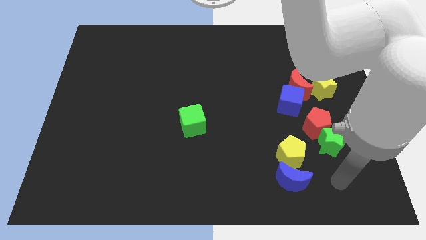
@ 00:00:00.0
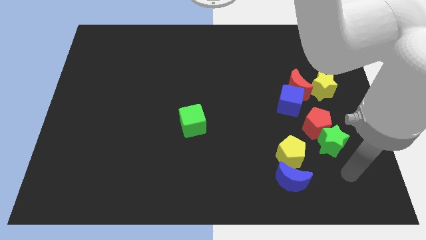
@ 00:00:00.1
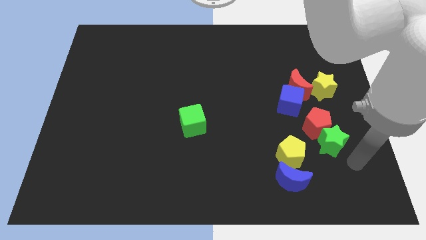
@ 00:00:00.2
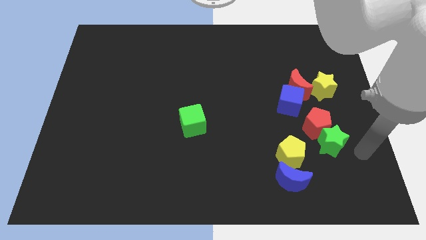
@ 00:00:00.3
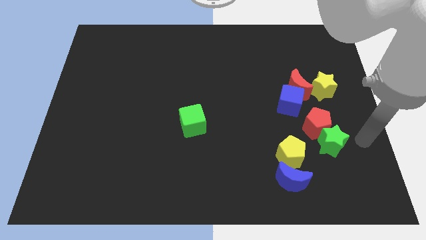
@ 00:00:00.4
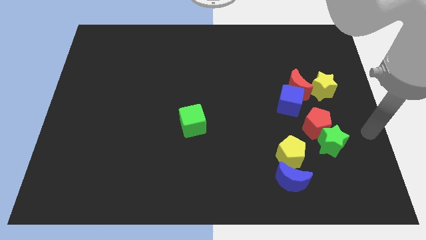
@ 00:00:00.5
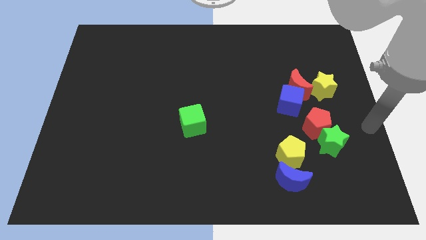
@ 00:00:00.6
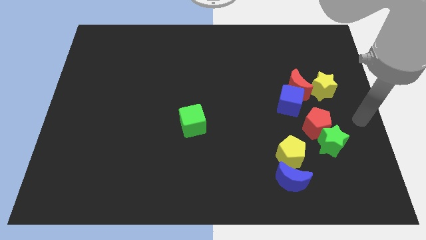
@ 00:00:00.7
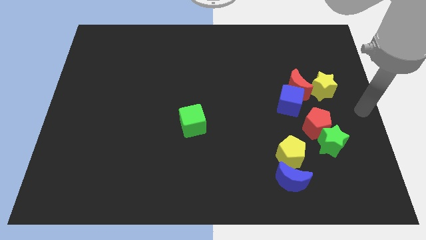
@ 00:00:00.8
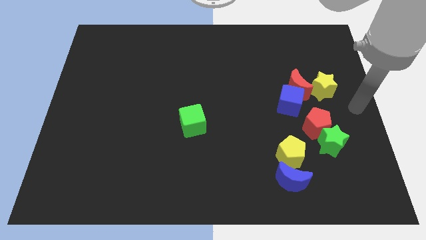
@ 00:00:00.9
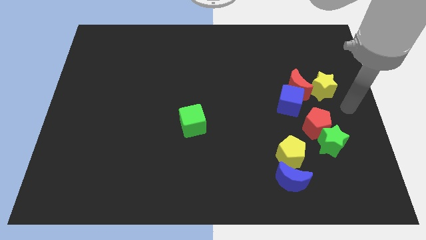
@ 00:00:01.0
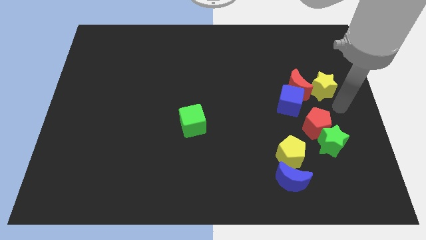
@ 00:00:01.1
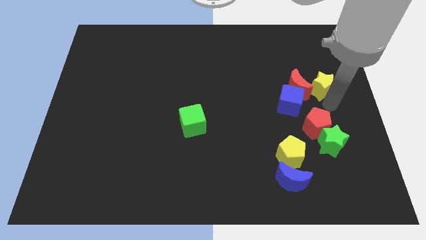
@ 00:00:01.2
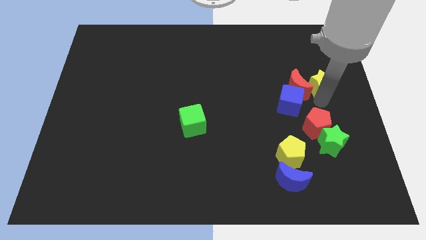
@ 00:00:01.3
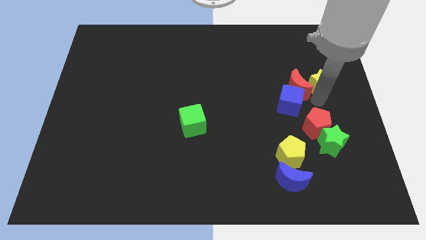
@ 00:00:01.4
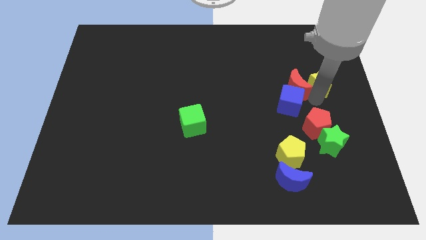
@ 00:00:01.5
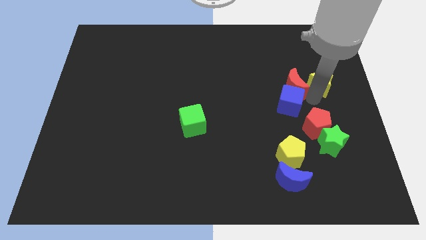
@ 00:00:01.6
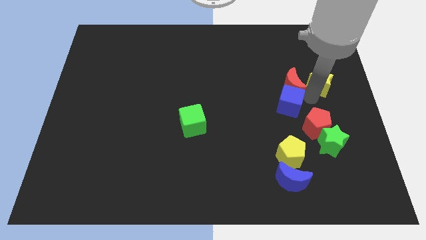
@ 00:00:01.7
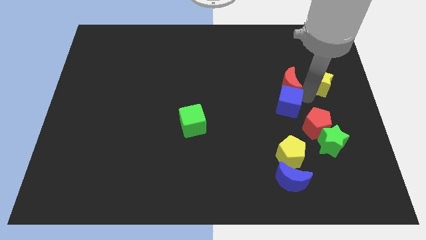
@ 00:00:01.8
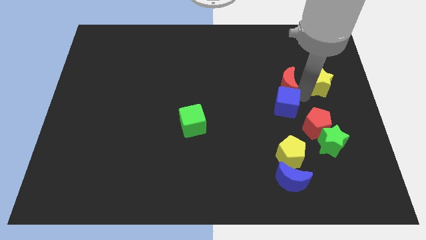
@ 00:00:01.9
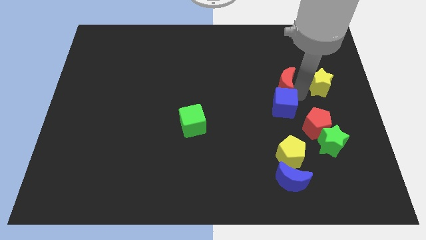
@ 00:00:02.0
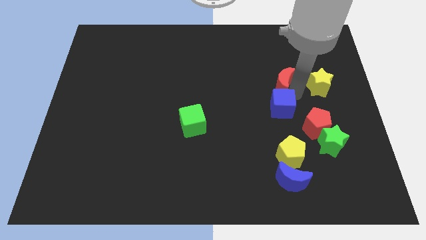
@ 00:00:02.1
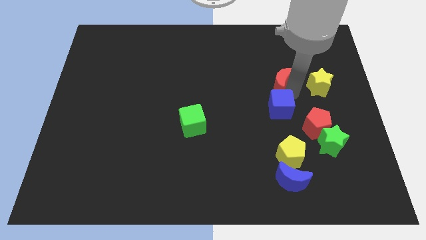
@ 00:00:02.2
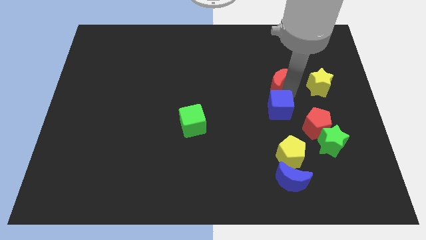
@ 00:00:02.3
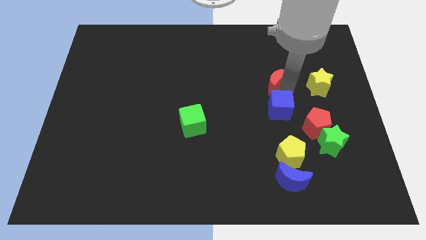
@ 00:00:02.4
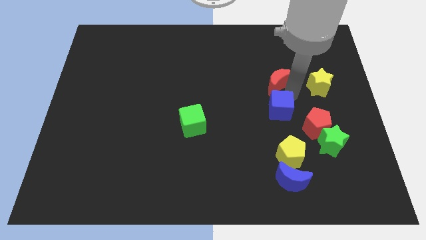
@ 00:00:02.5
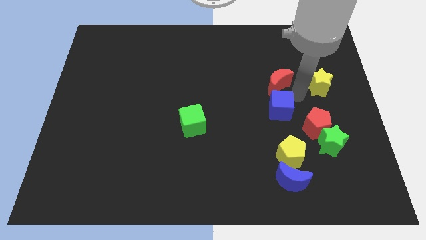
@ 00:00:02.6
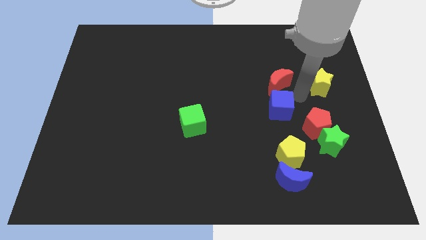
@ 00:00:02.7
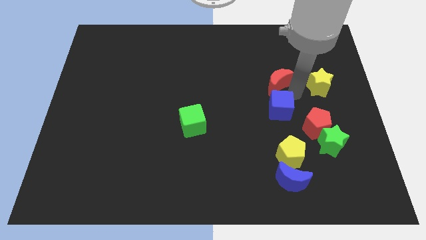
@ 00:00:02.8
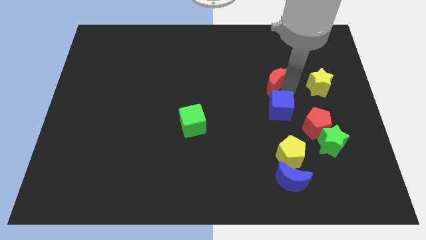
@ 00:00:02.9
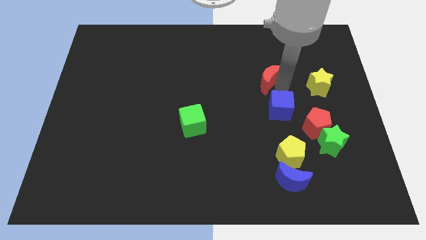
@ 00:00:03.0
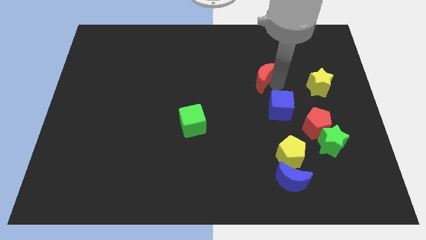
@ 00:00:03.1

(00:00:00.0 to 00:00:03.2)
move the red moon away from the blue cube and yellow star

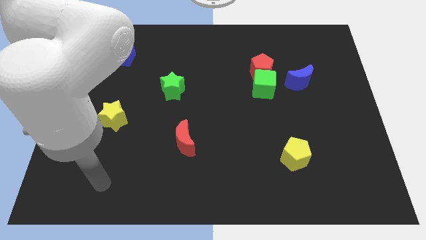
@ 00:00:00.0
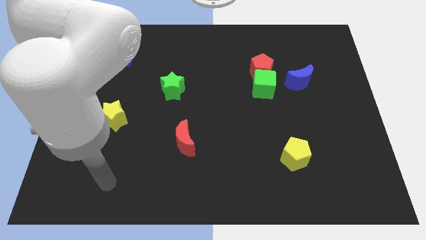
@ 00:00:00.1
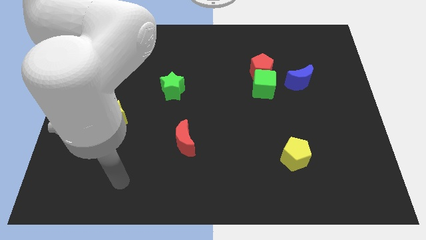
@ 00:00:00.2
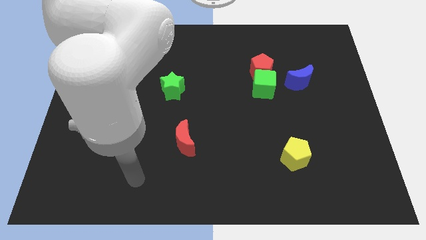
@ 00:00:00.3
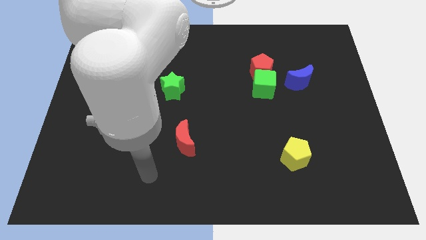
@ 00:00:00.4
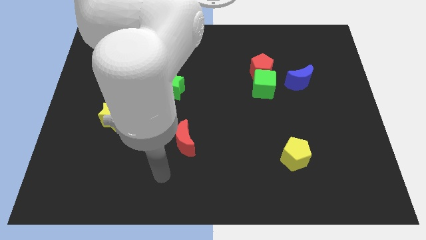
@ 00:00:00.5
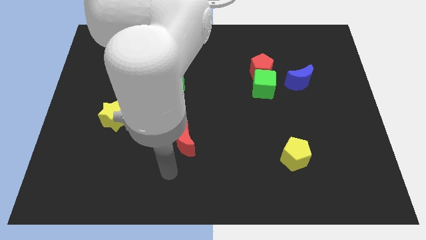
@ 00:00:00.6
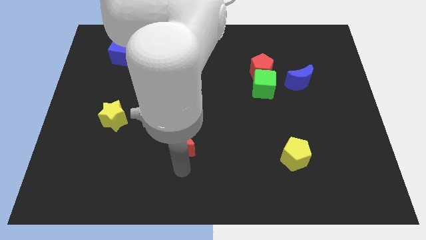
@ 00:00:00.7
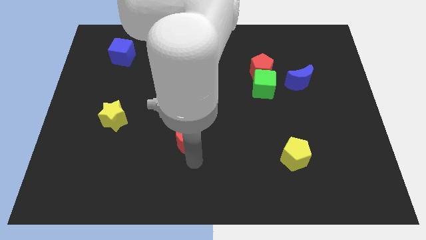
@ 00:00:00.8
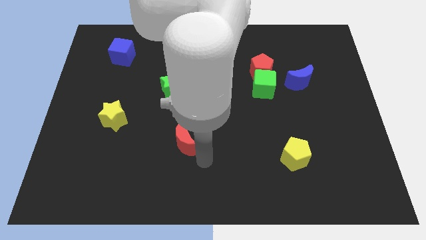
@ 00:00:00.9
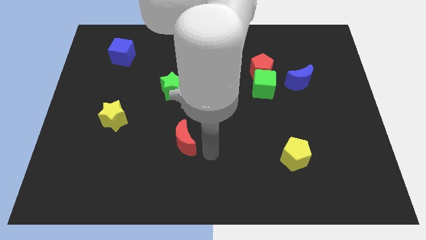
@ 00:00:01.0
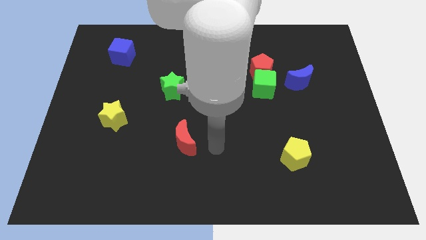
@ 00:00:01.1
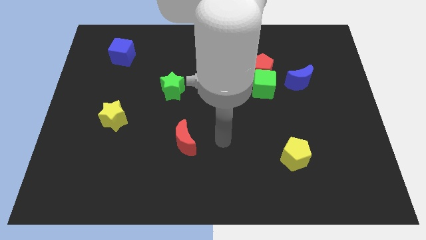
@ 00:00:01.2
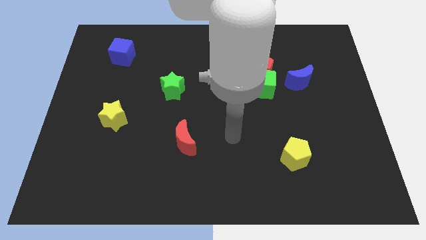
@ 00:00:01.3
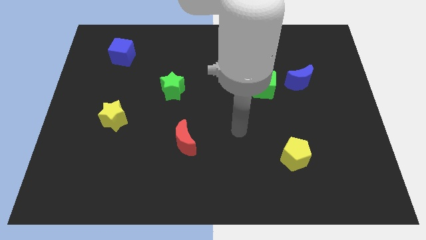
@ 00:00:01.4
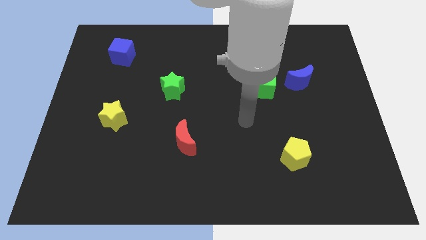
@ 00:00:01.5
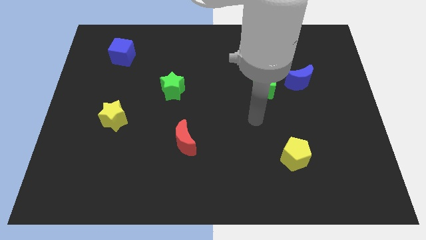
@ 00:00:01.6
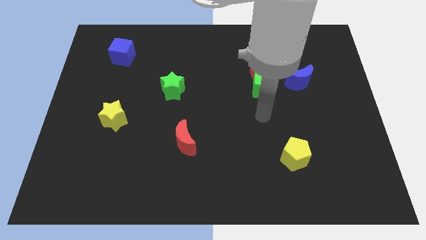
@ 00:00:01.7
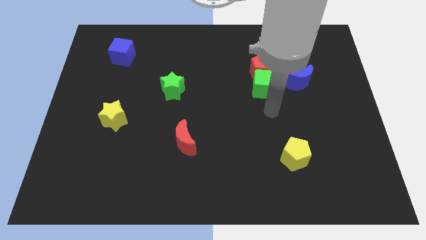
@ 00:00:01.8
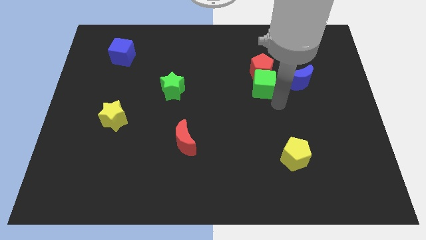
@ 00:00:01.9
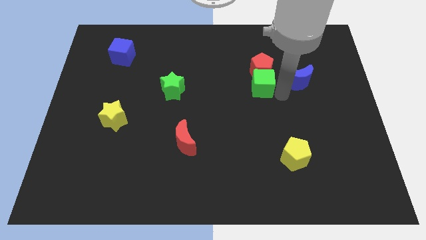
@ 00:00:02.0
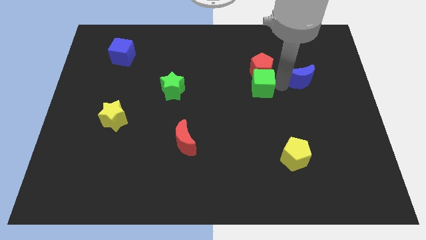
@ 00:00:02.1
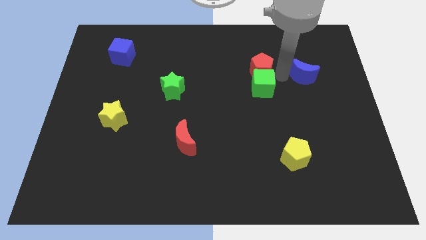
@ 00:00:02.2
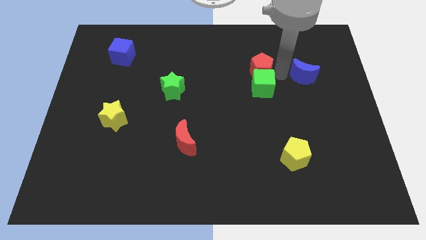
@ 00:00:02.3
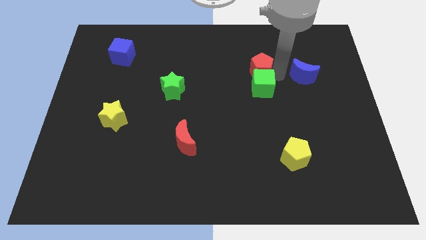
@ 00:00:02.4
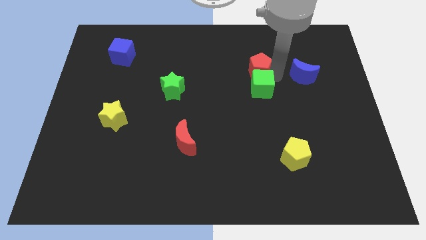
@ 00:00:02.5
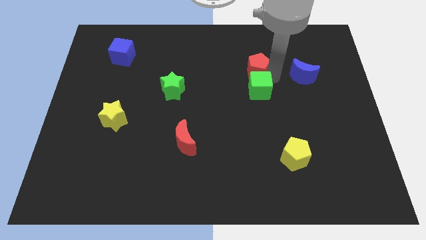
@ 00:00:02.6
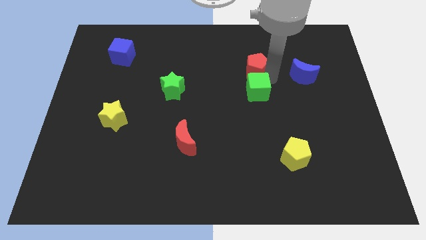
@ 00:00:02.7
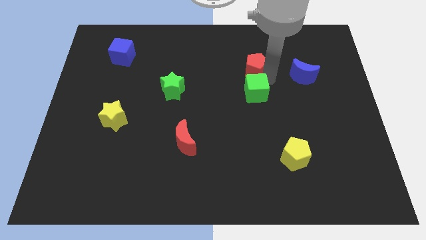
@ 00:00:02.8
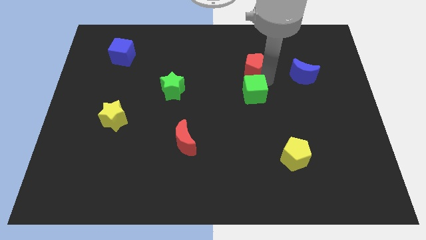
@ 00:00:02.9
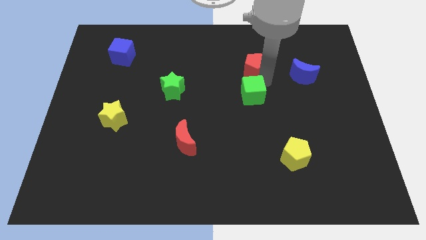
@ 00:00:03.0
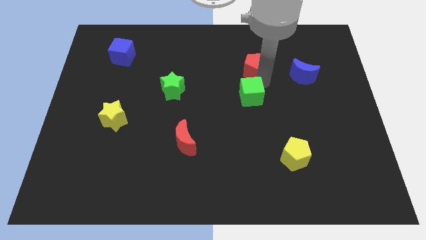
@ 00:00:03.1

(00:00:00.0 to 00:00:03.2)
move the green cube away from the red pentagon and blue moon

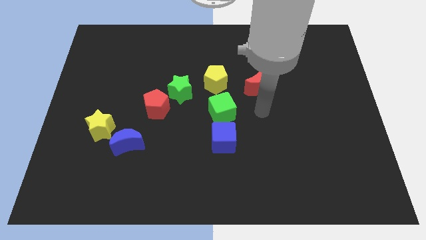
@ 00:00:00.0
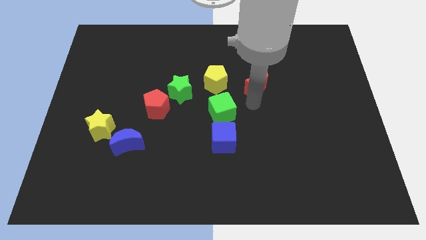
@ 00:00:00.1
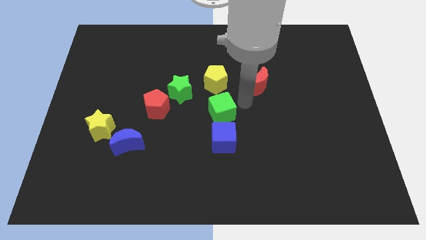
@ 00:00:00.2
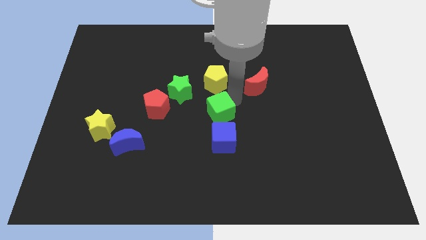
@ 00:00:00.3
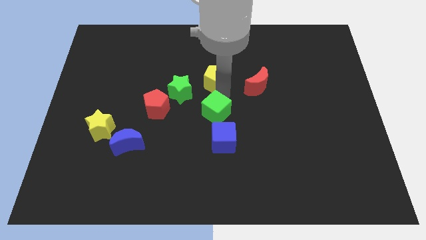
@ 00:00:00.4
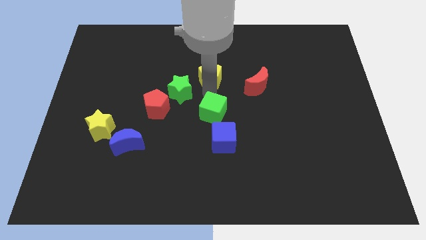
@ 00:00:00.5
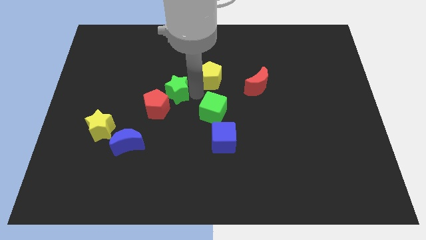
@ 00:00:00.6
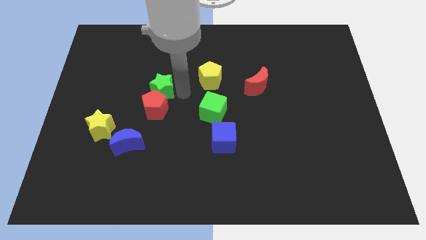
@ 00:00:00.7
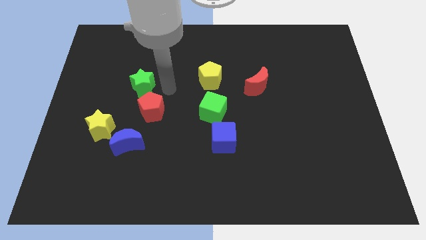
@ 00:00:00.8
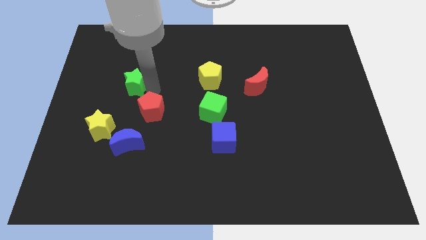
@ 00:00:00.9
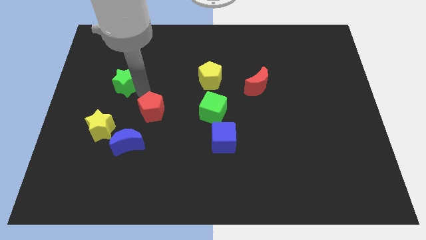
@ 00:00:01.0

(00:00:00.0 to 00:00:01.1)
pull the red pentagon apart from the green star

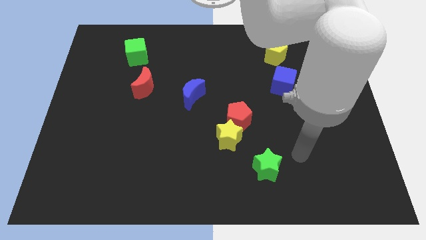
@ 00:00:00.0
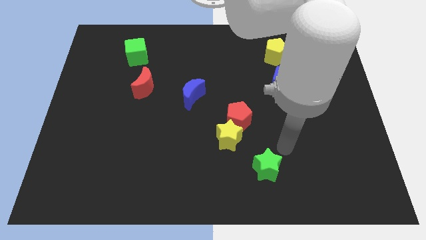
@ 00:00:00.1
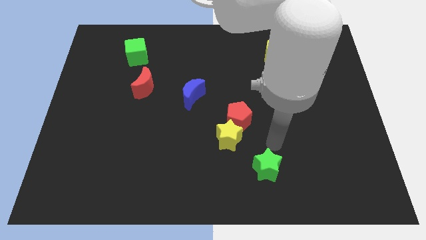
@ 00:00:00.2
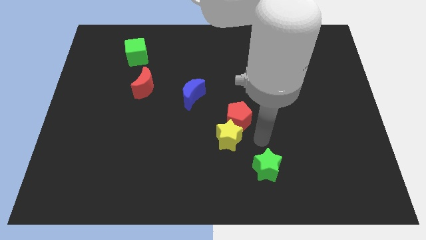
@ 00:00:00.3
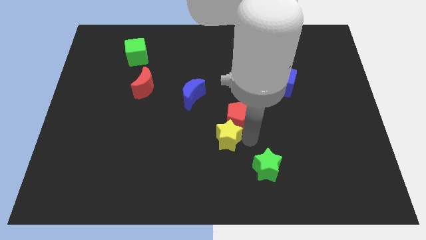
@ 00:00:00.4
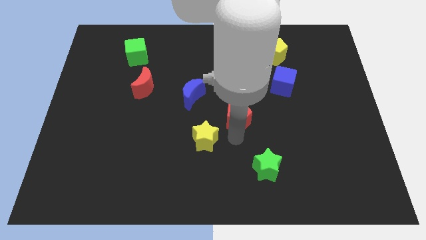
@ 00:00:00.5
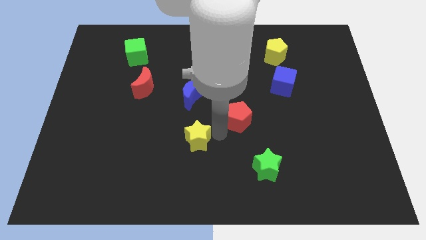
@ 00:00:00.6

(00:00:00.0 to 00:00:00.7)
pull the red pentagon apart from the yellow star

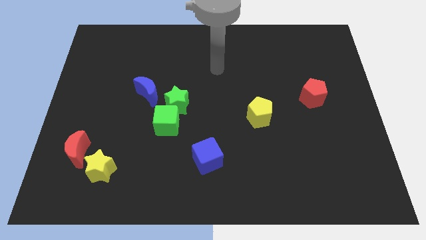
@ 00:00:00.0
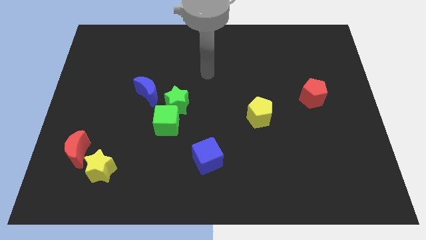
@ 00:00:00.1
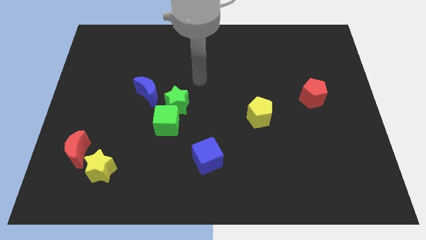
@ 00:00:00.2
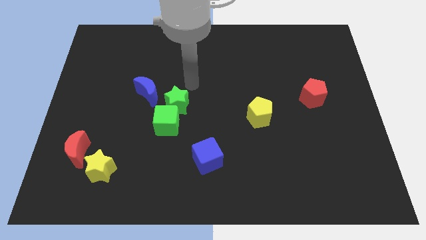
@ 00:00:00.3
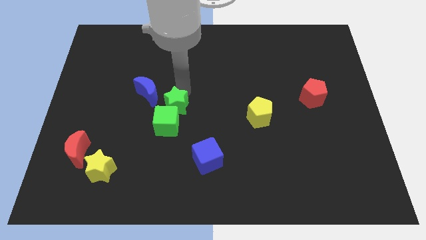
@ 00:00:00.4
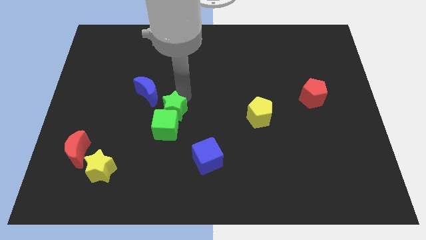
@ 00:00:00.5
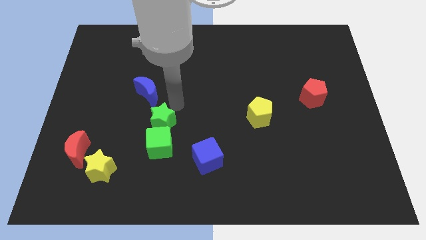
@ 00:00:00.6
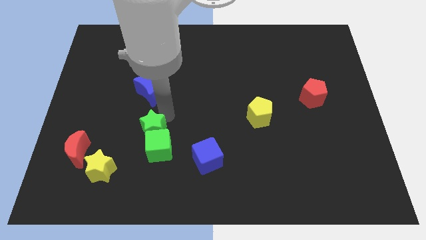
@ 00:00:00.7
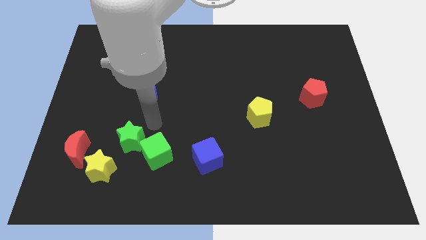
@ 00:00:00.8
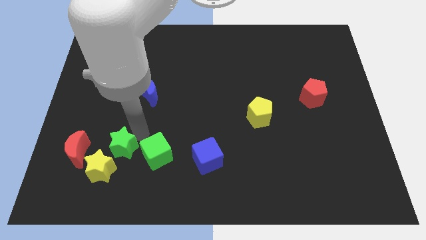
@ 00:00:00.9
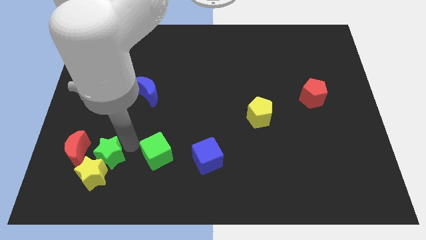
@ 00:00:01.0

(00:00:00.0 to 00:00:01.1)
separate the green cube from the green star
